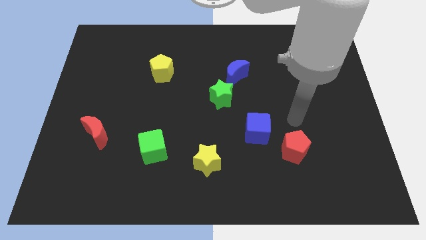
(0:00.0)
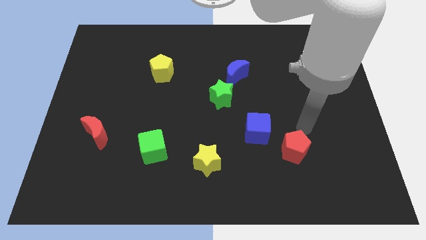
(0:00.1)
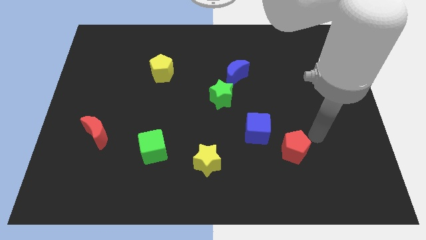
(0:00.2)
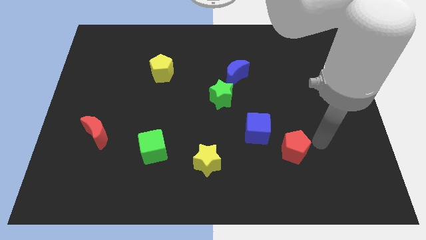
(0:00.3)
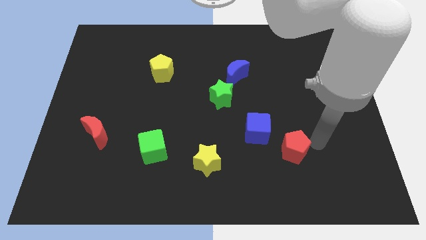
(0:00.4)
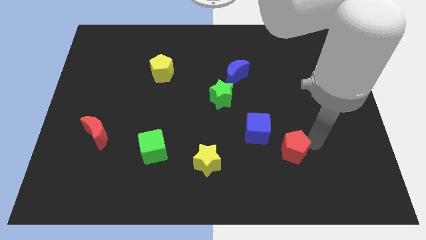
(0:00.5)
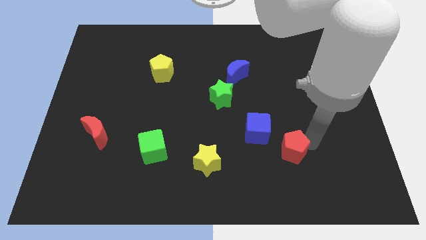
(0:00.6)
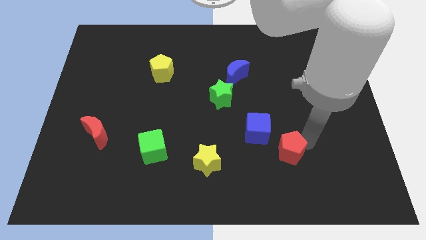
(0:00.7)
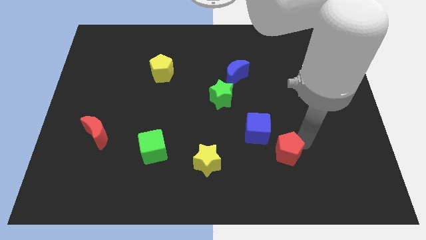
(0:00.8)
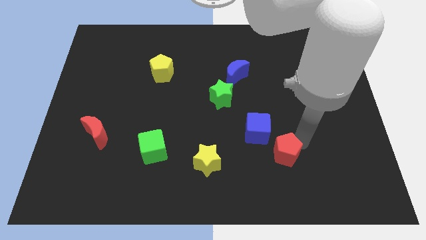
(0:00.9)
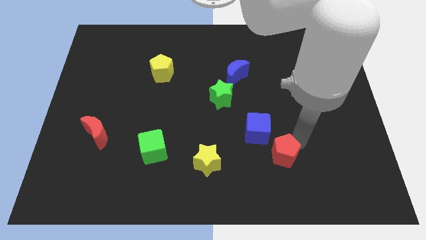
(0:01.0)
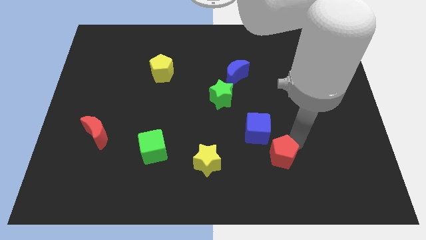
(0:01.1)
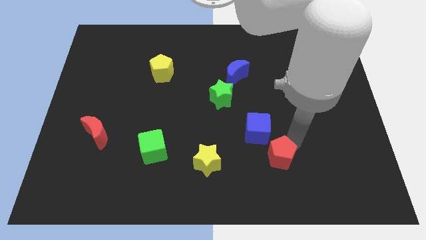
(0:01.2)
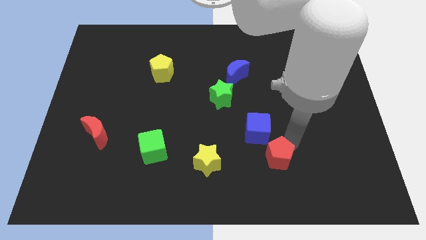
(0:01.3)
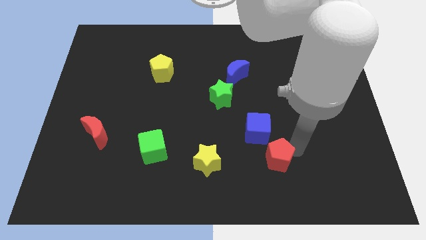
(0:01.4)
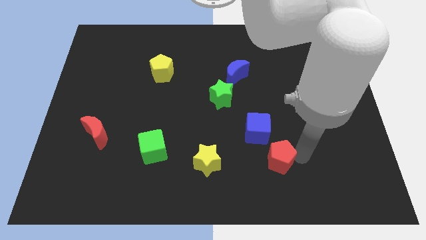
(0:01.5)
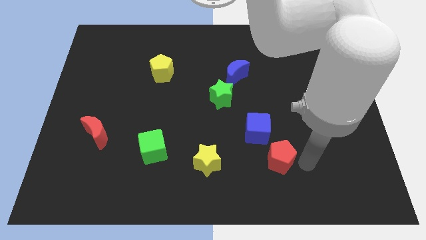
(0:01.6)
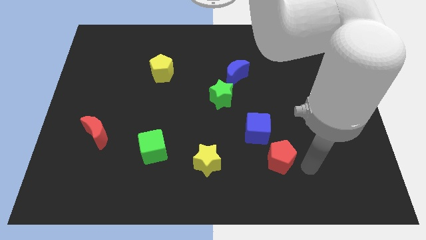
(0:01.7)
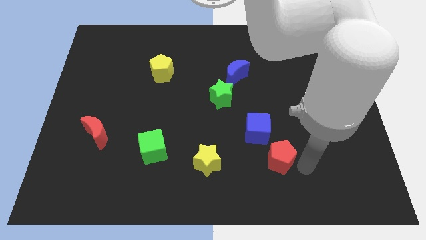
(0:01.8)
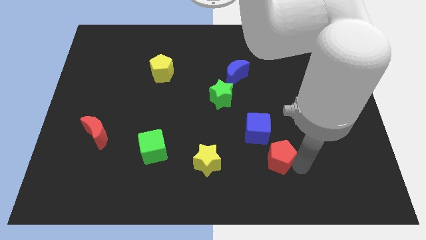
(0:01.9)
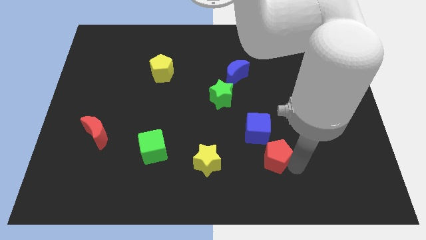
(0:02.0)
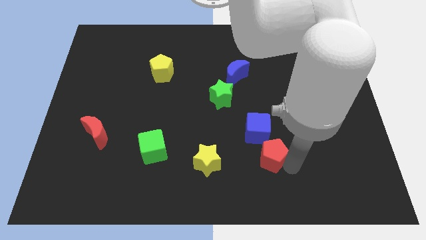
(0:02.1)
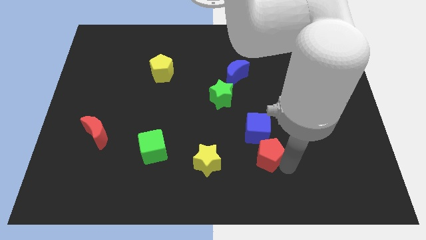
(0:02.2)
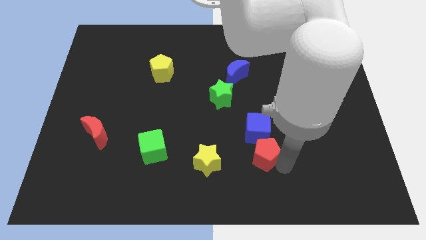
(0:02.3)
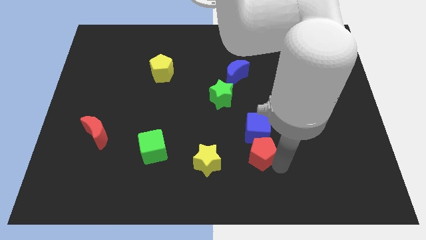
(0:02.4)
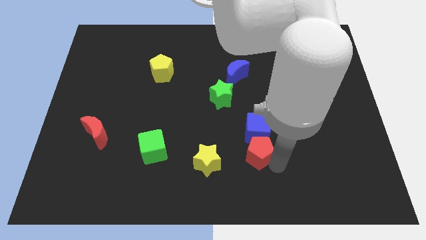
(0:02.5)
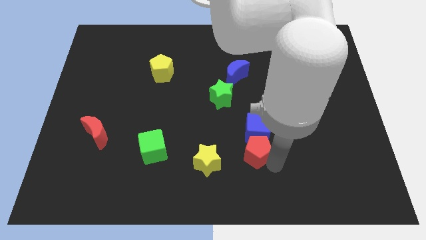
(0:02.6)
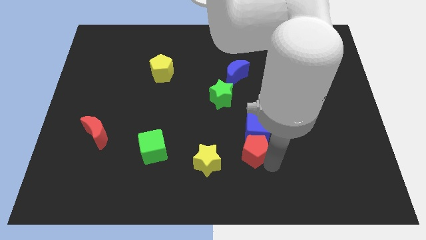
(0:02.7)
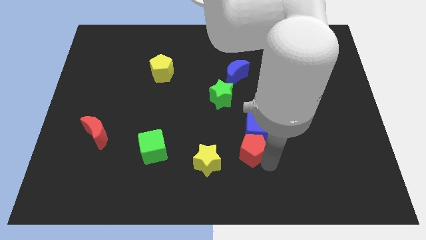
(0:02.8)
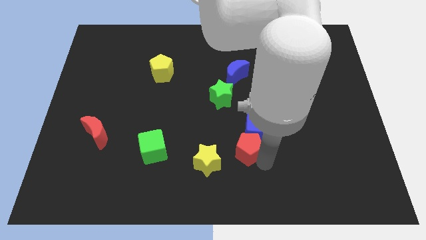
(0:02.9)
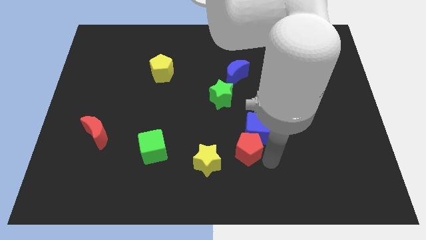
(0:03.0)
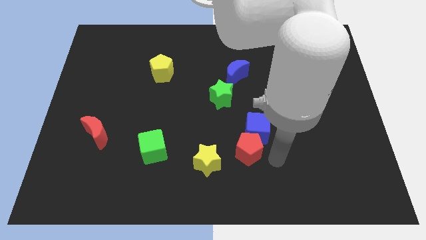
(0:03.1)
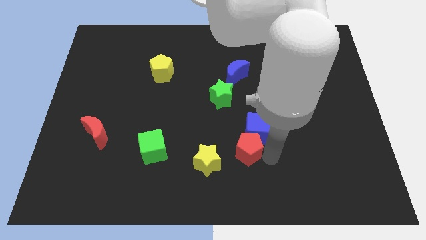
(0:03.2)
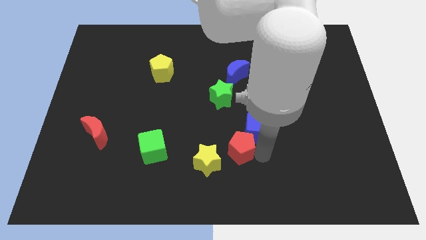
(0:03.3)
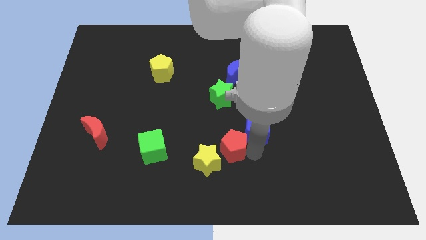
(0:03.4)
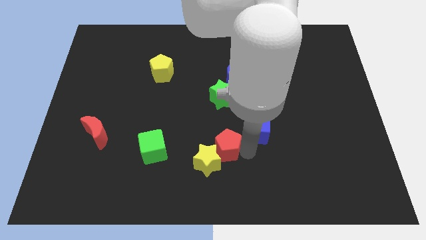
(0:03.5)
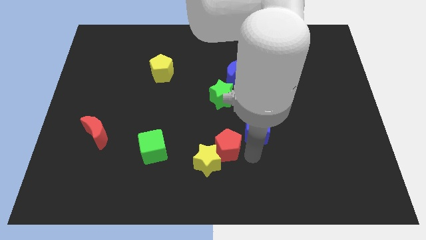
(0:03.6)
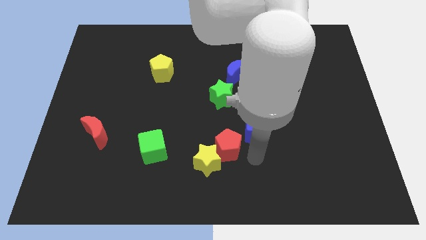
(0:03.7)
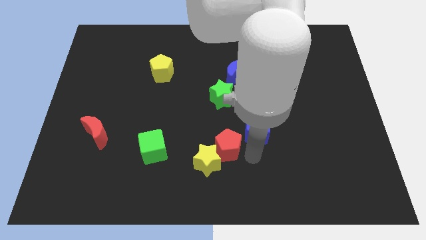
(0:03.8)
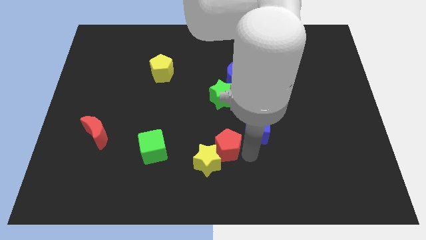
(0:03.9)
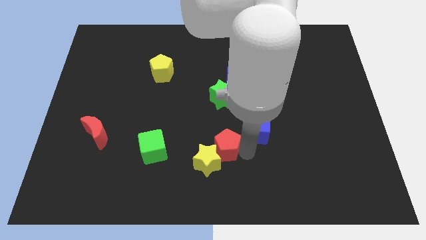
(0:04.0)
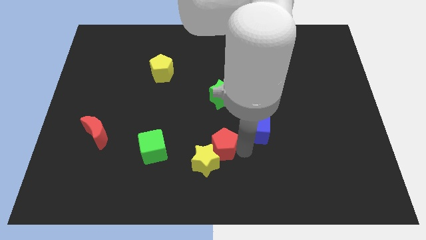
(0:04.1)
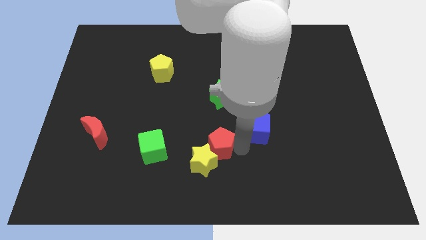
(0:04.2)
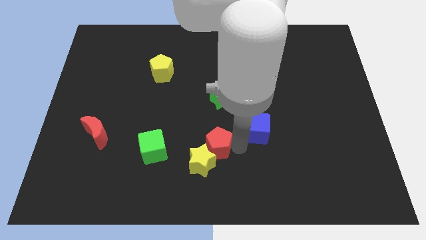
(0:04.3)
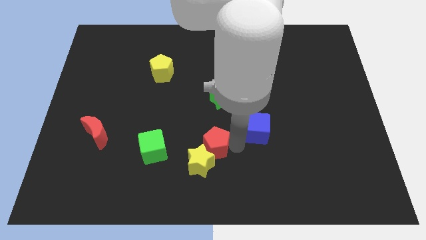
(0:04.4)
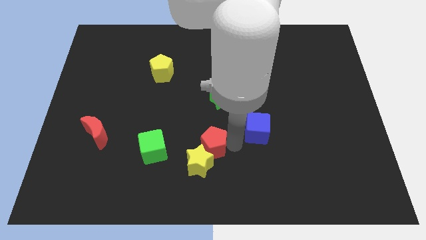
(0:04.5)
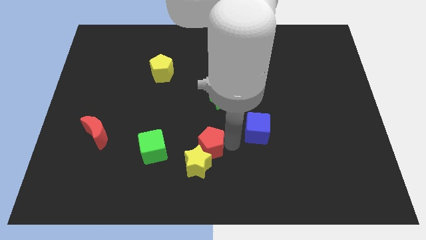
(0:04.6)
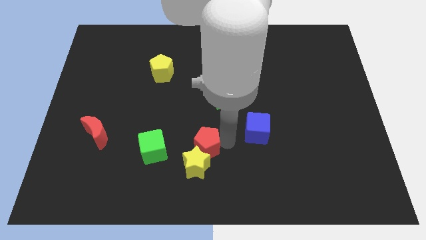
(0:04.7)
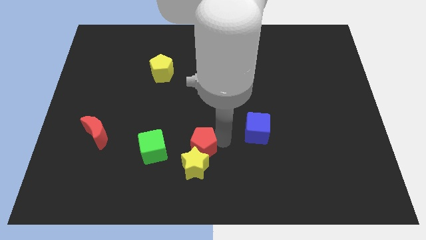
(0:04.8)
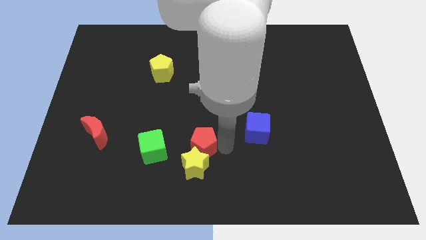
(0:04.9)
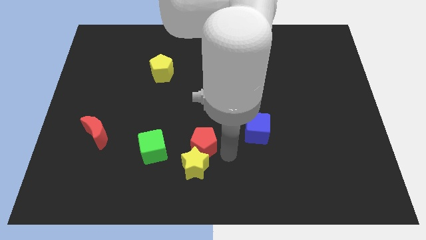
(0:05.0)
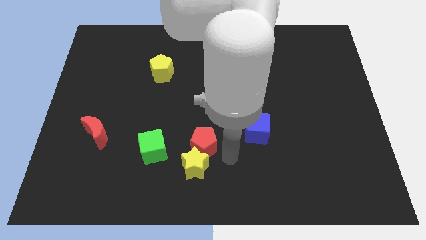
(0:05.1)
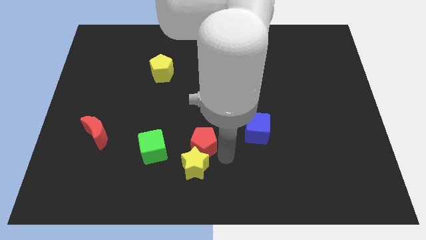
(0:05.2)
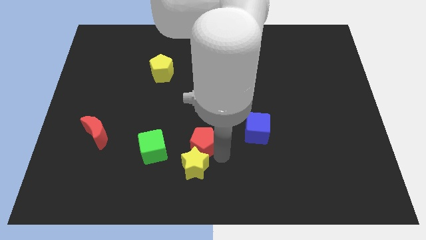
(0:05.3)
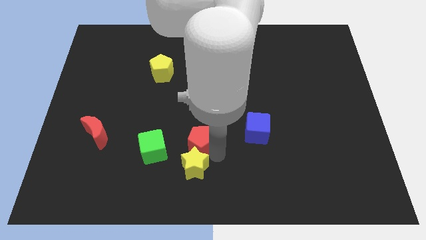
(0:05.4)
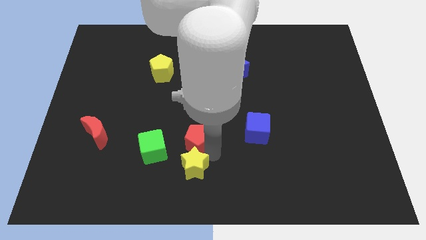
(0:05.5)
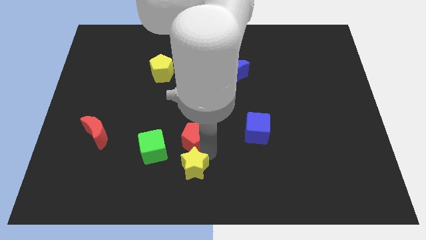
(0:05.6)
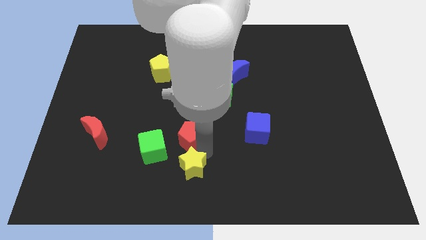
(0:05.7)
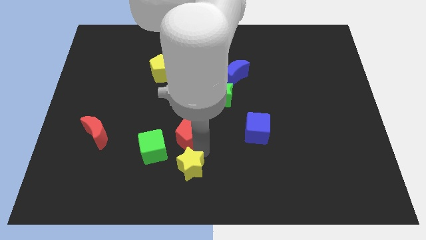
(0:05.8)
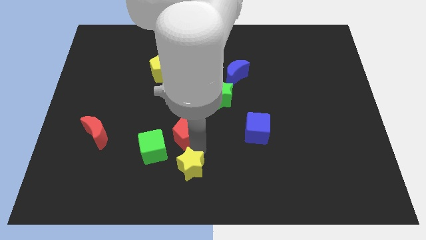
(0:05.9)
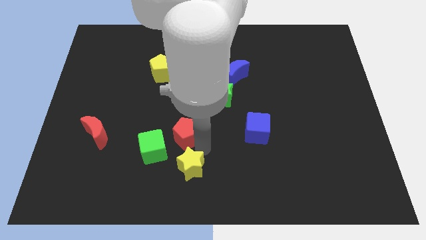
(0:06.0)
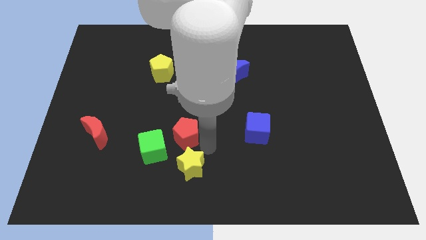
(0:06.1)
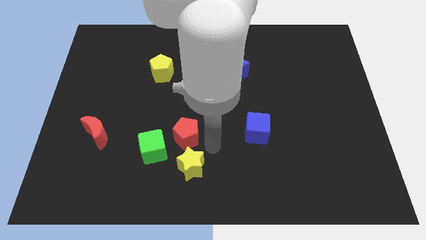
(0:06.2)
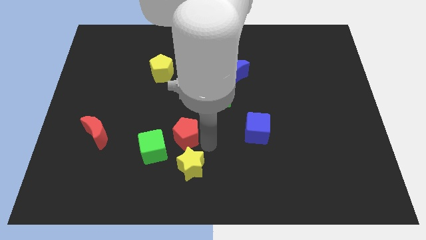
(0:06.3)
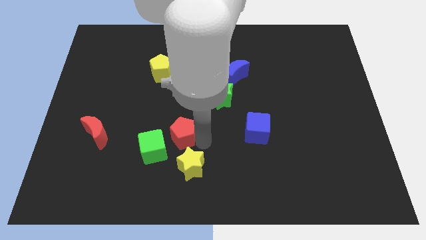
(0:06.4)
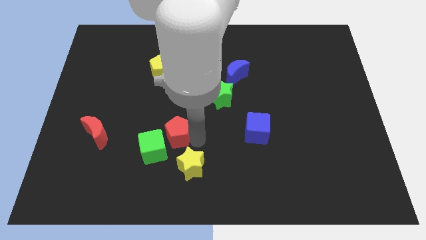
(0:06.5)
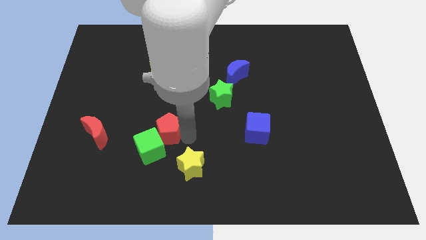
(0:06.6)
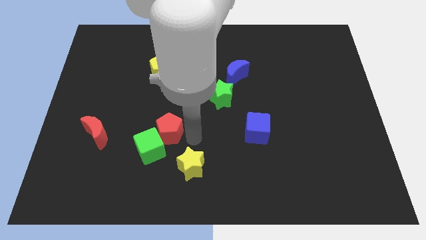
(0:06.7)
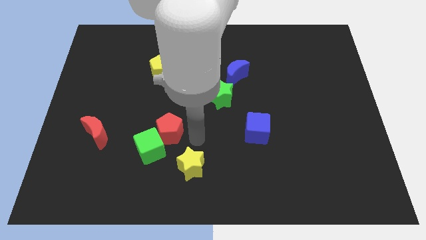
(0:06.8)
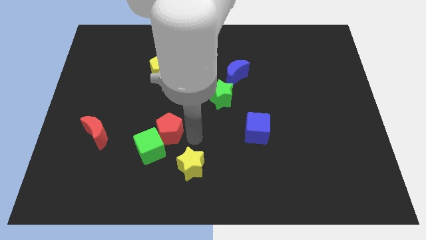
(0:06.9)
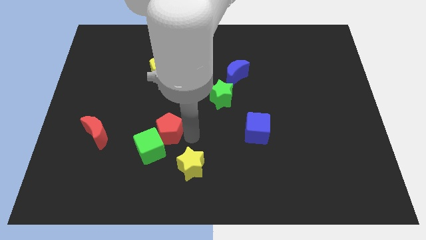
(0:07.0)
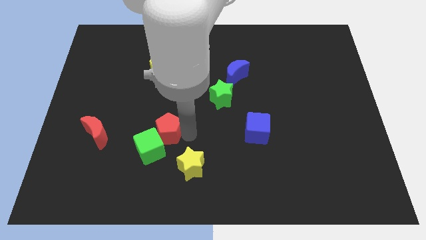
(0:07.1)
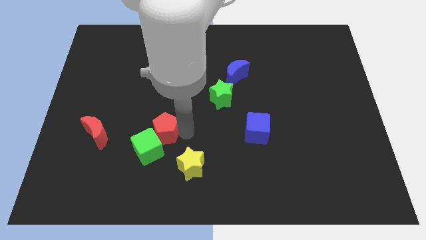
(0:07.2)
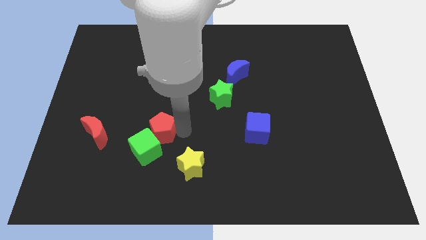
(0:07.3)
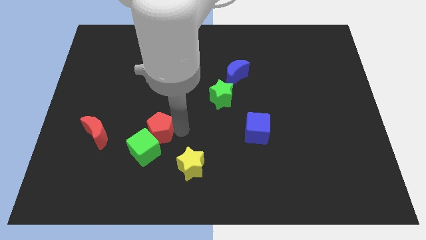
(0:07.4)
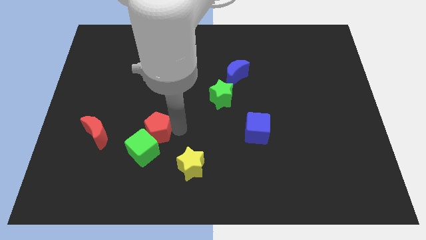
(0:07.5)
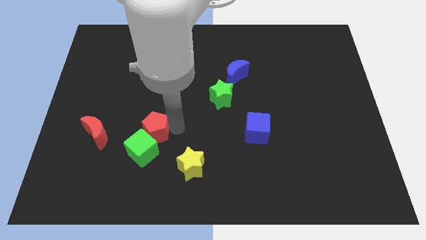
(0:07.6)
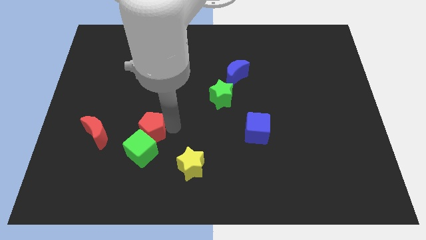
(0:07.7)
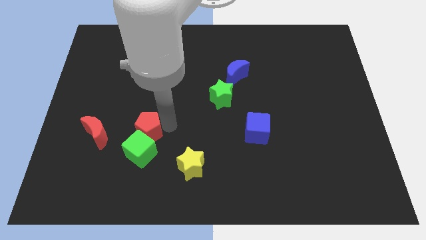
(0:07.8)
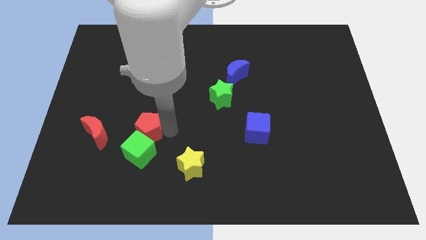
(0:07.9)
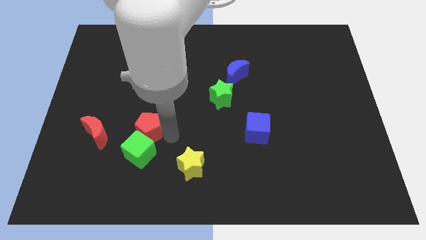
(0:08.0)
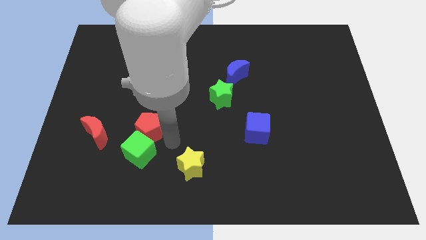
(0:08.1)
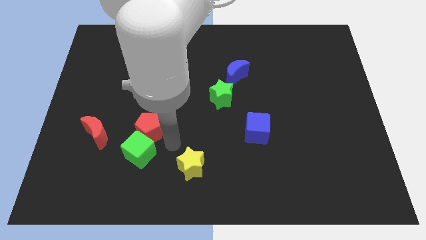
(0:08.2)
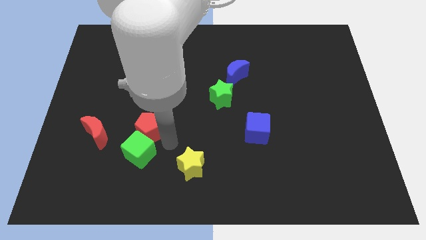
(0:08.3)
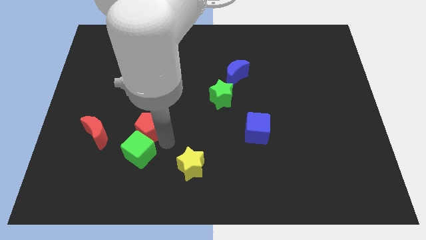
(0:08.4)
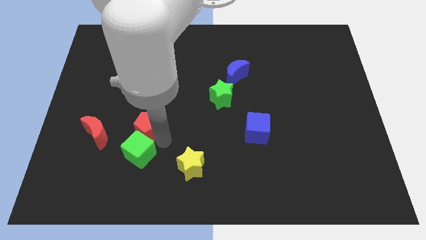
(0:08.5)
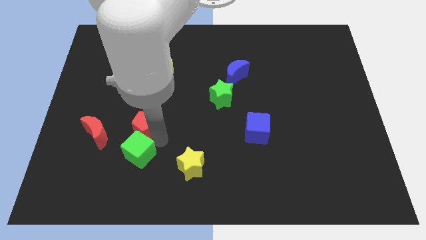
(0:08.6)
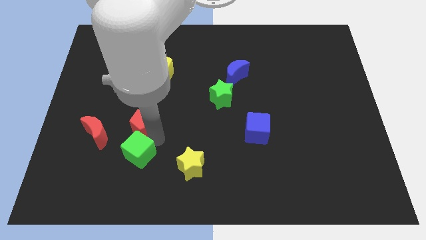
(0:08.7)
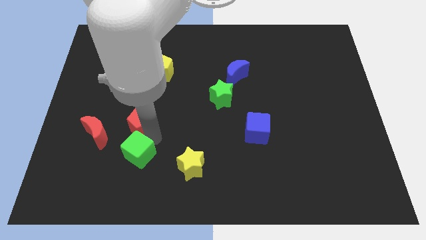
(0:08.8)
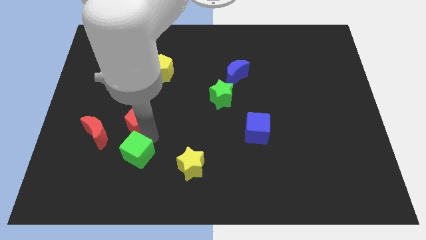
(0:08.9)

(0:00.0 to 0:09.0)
move the red pentagon to the top right of the red moon
